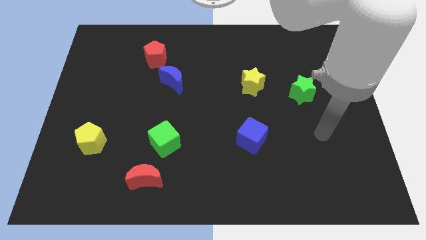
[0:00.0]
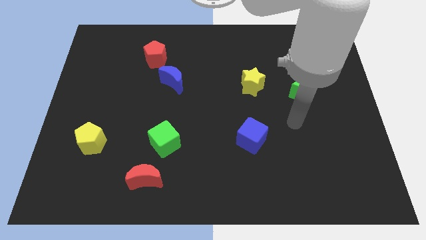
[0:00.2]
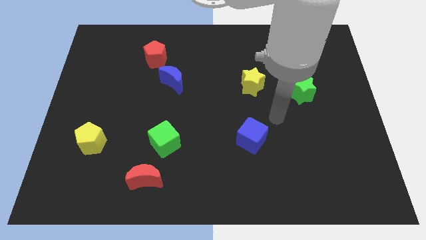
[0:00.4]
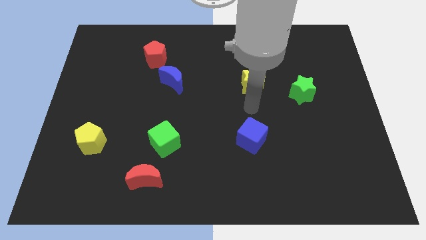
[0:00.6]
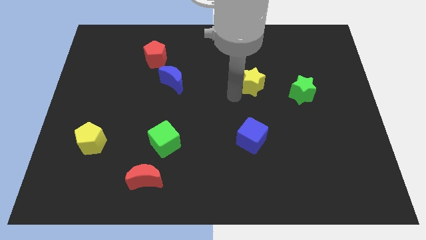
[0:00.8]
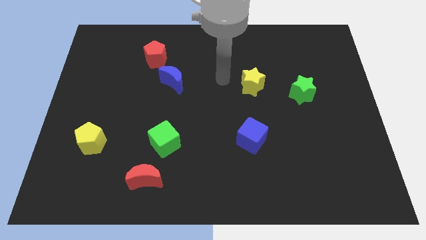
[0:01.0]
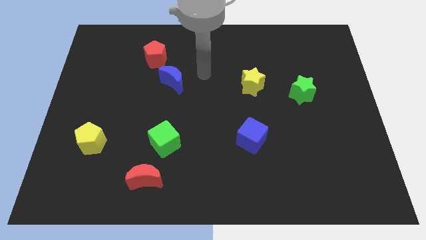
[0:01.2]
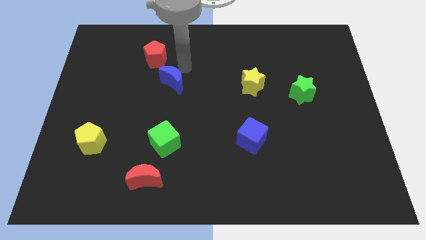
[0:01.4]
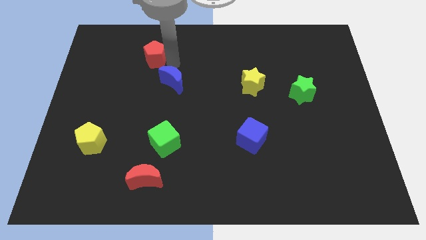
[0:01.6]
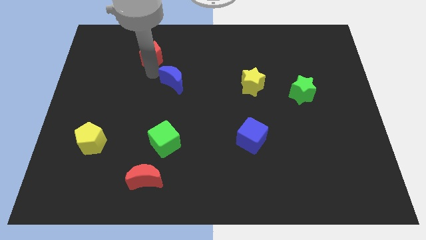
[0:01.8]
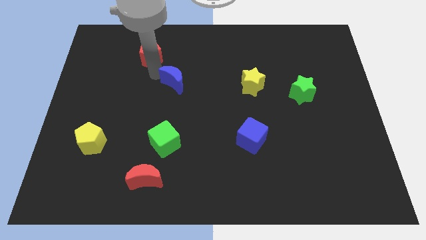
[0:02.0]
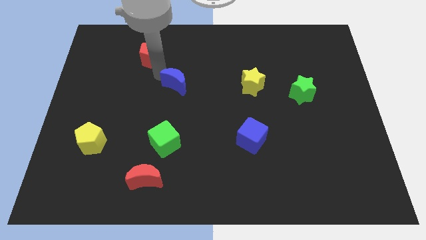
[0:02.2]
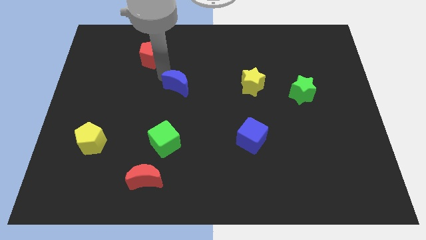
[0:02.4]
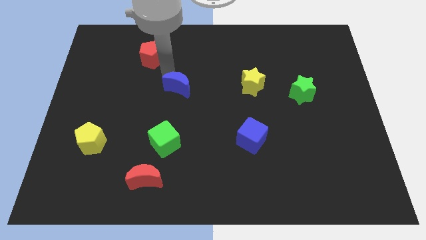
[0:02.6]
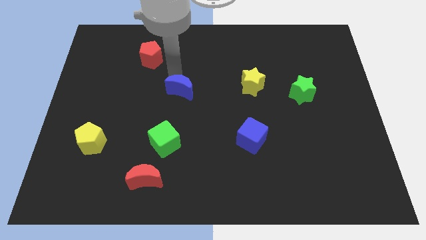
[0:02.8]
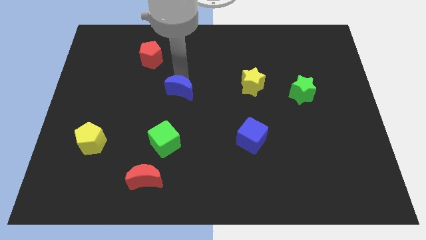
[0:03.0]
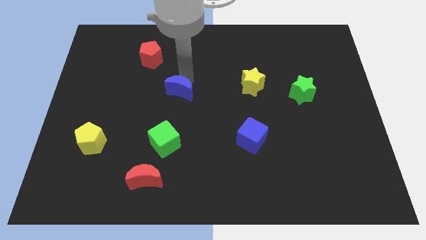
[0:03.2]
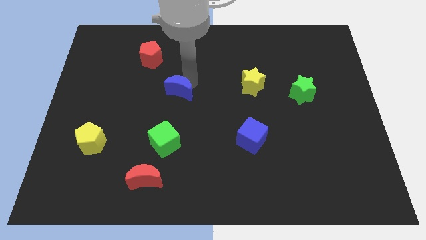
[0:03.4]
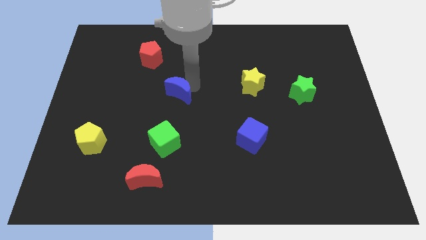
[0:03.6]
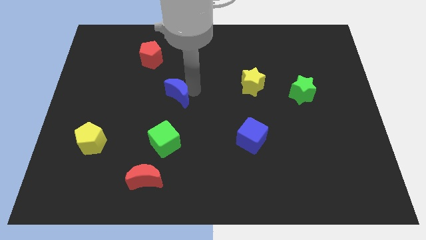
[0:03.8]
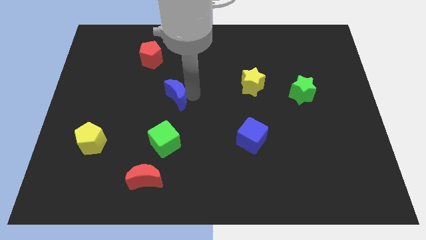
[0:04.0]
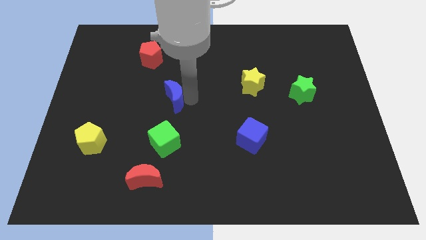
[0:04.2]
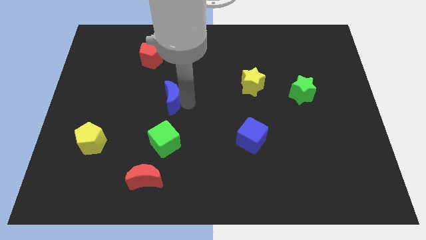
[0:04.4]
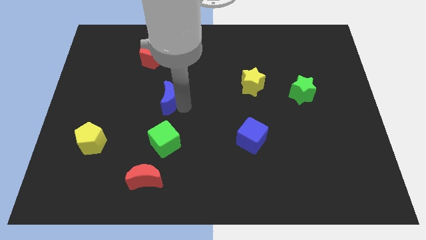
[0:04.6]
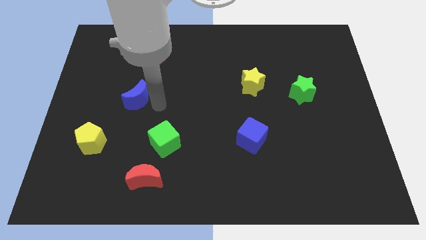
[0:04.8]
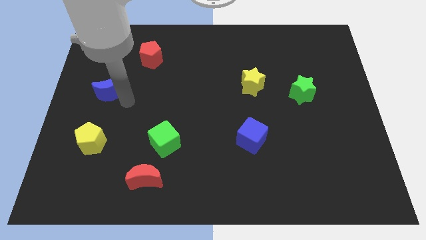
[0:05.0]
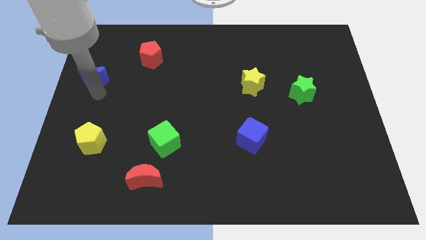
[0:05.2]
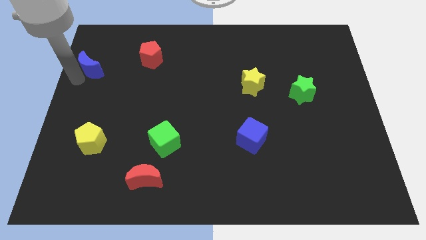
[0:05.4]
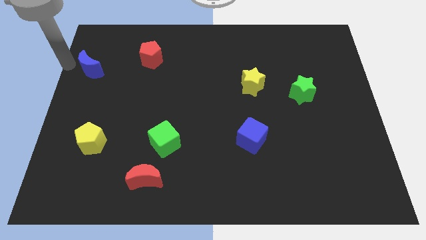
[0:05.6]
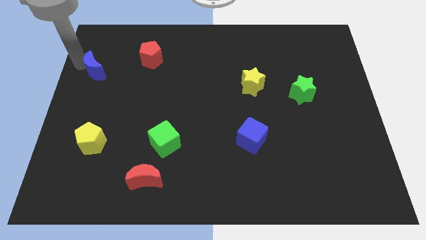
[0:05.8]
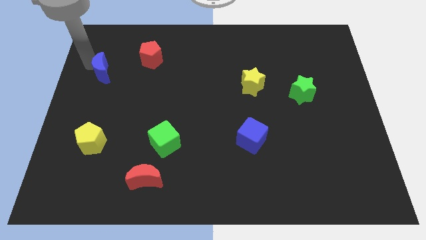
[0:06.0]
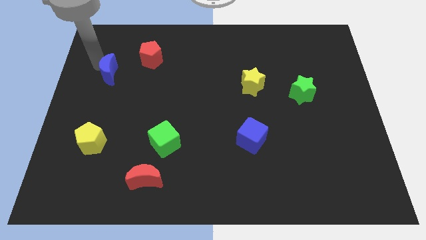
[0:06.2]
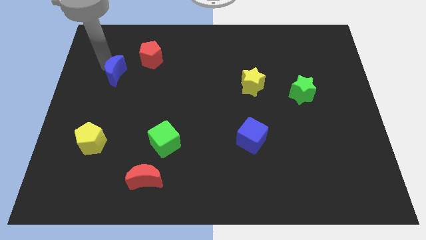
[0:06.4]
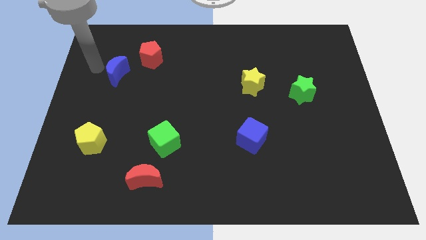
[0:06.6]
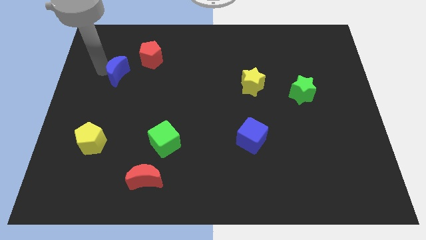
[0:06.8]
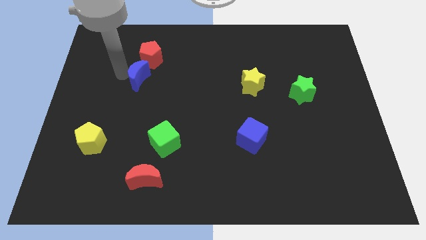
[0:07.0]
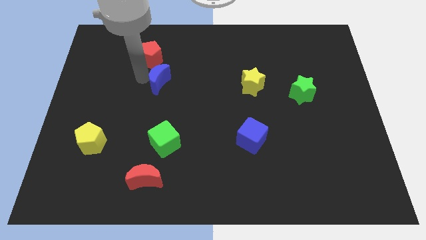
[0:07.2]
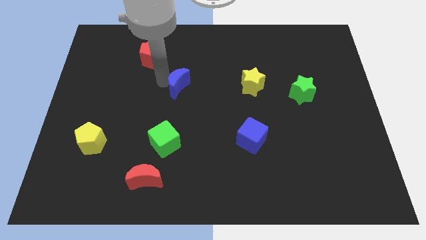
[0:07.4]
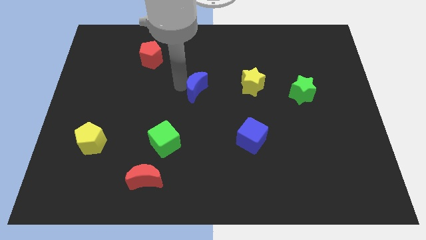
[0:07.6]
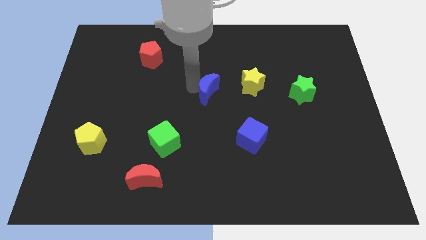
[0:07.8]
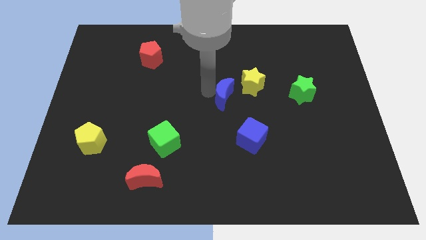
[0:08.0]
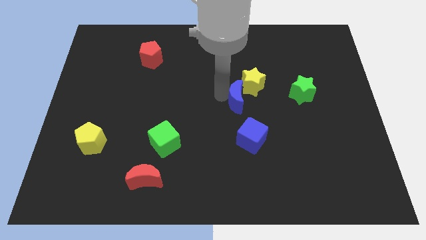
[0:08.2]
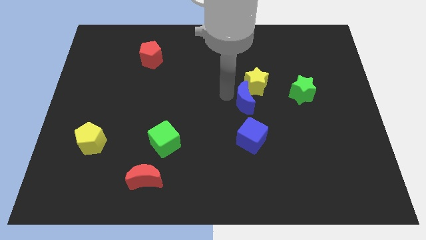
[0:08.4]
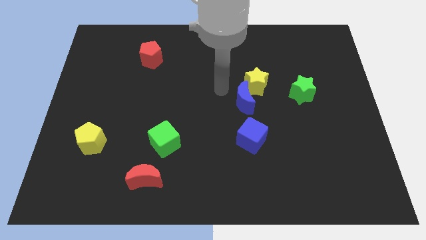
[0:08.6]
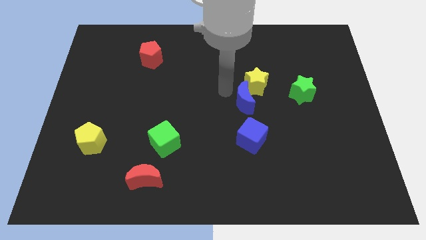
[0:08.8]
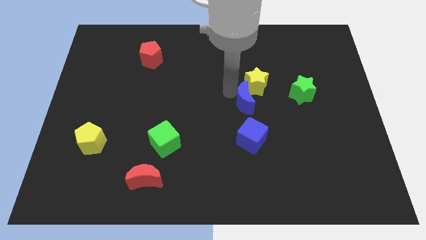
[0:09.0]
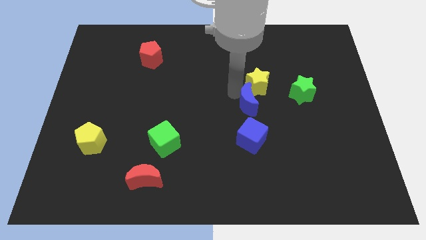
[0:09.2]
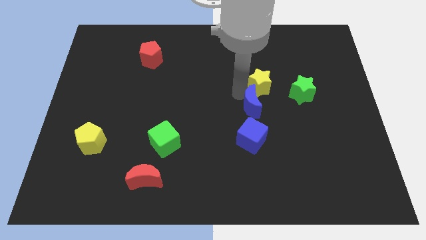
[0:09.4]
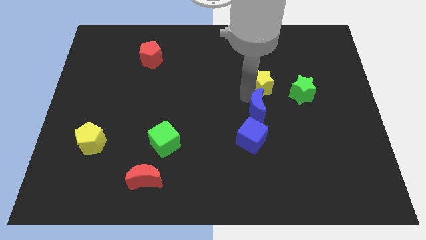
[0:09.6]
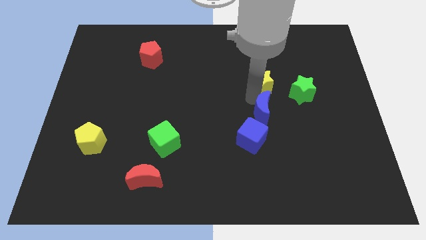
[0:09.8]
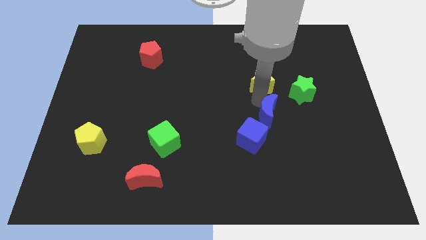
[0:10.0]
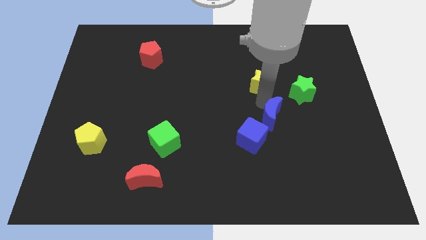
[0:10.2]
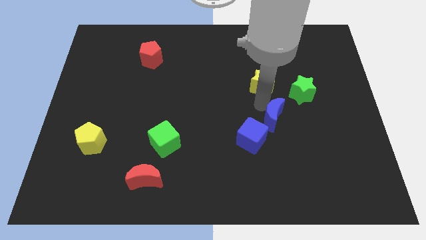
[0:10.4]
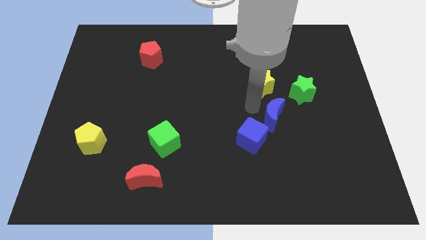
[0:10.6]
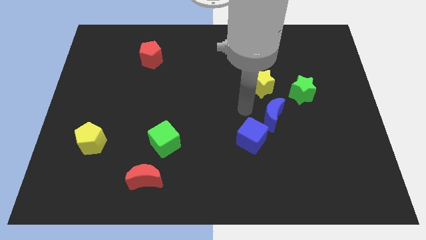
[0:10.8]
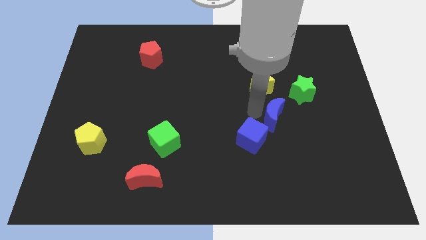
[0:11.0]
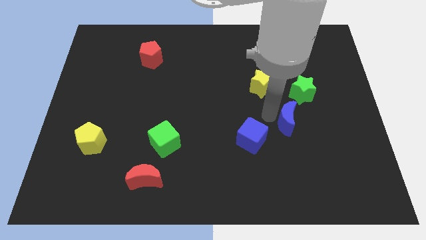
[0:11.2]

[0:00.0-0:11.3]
push the blue moon below the green star

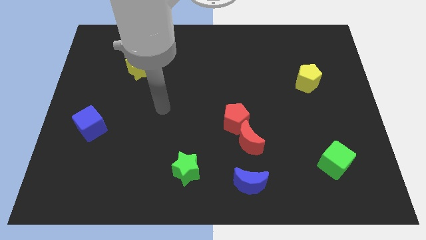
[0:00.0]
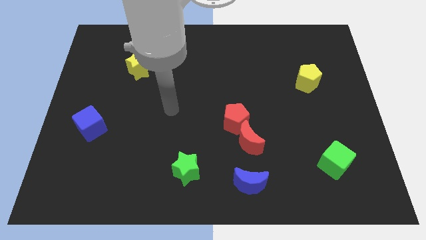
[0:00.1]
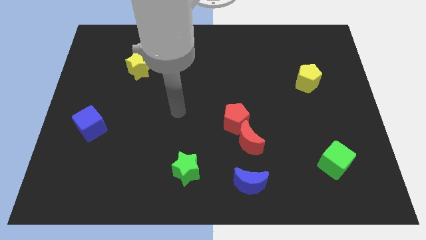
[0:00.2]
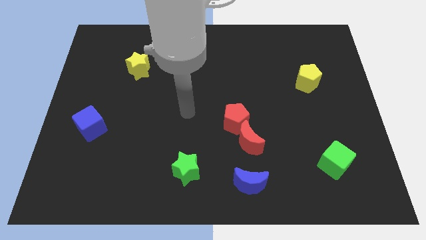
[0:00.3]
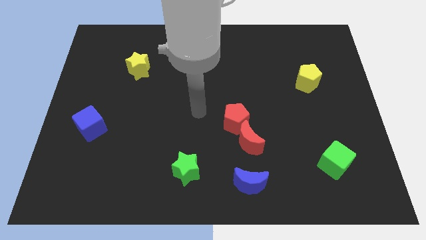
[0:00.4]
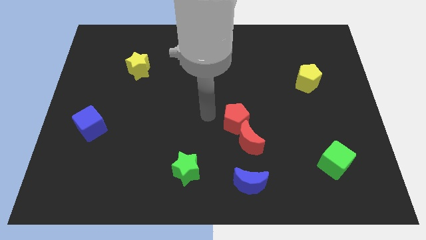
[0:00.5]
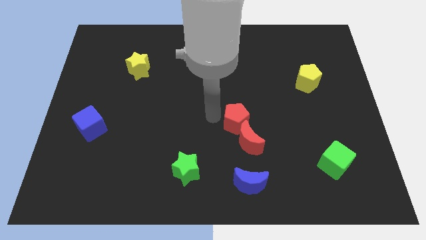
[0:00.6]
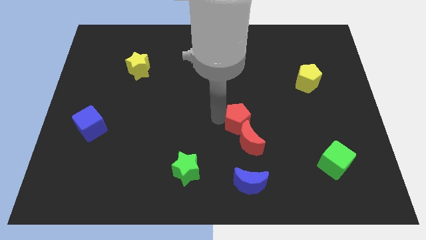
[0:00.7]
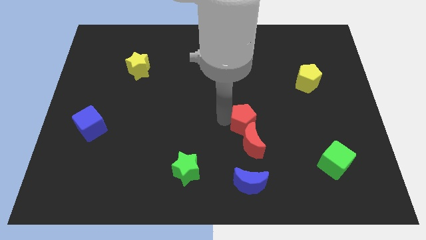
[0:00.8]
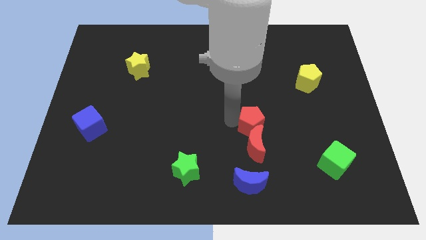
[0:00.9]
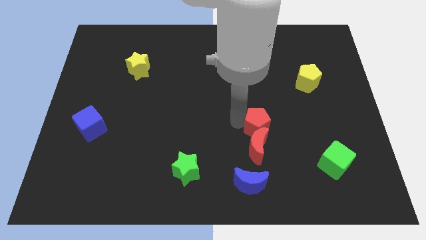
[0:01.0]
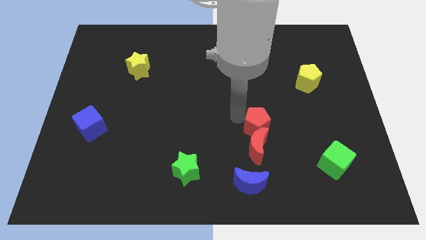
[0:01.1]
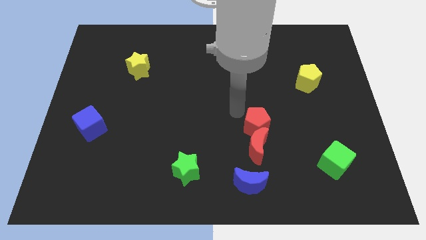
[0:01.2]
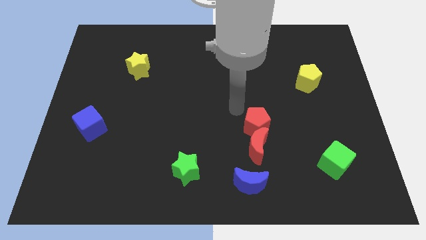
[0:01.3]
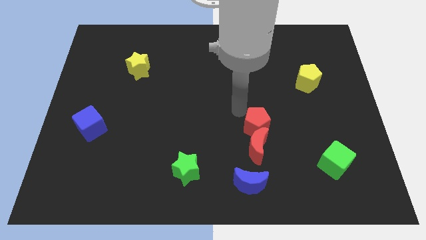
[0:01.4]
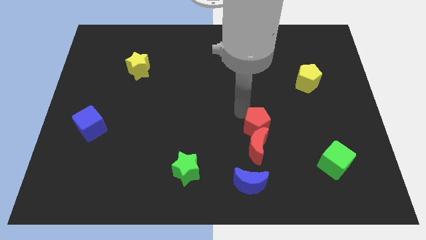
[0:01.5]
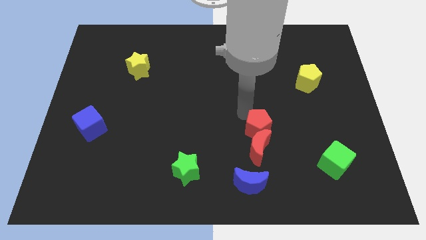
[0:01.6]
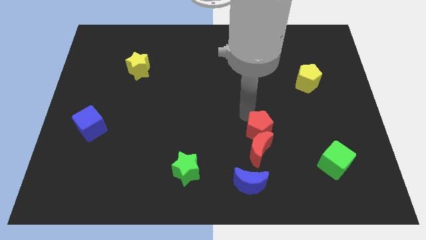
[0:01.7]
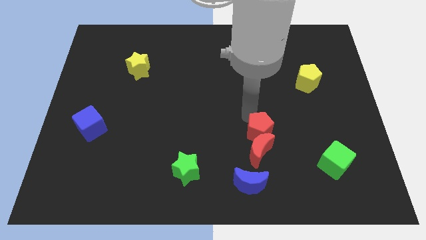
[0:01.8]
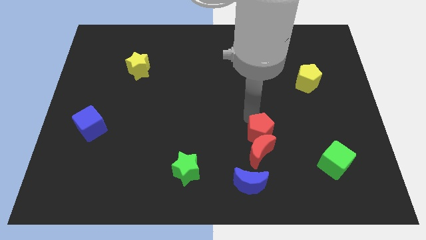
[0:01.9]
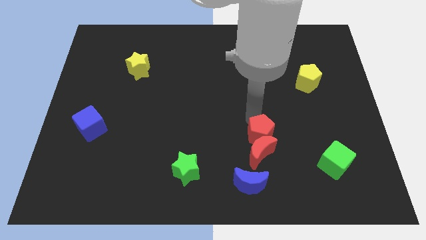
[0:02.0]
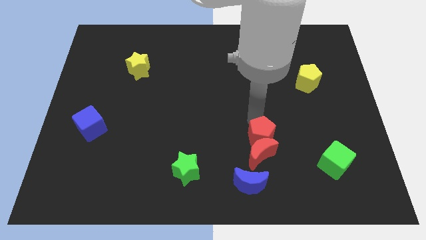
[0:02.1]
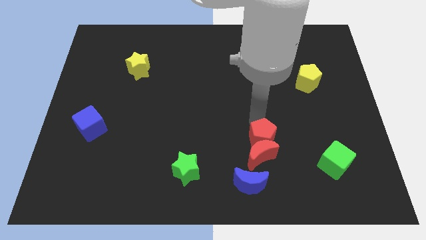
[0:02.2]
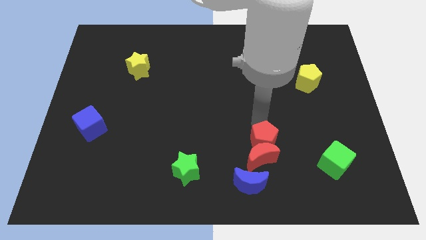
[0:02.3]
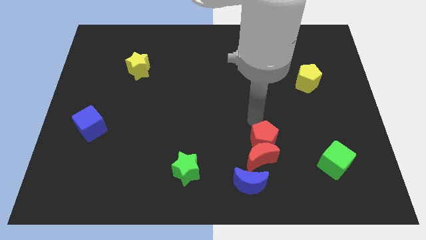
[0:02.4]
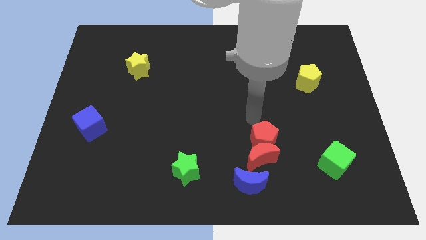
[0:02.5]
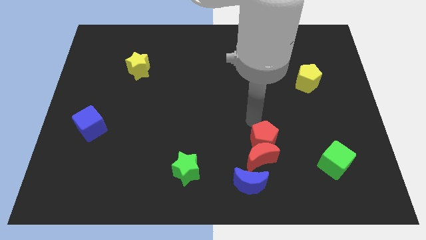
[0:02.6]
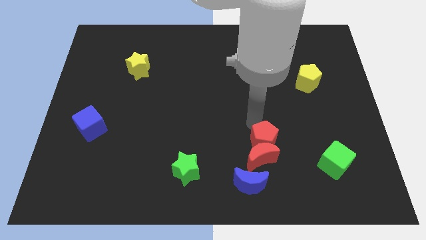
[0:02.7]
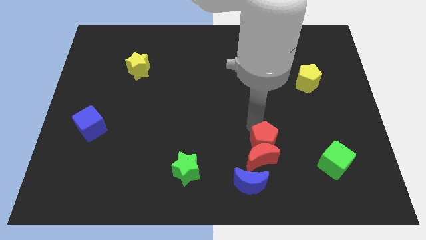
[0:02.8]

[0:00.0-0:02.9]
slide the red pentagon diagonally up and to the right of the blue moon
